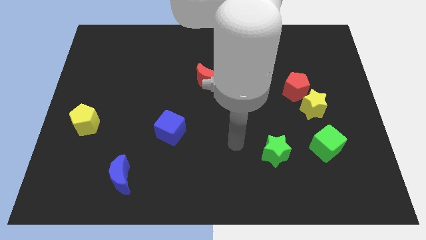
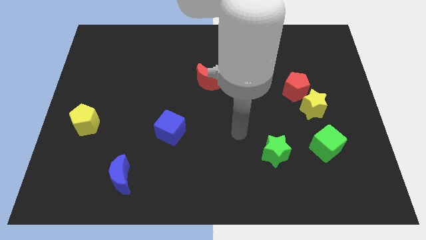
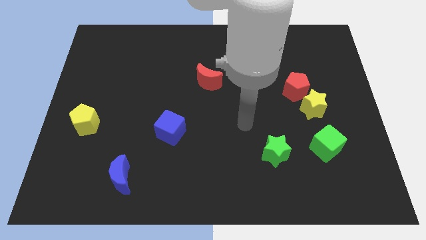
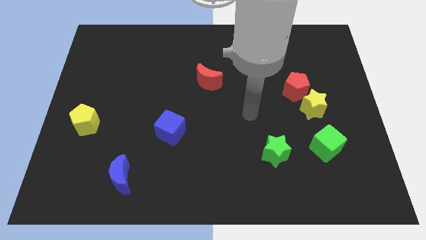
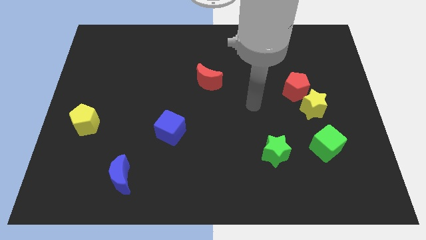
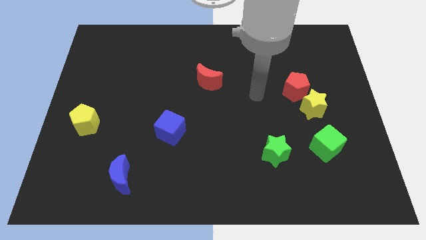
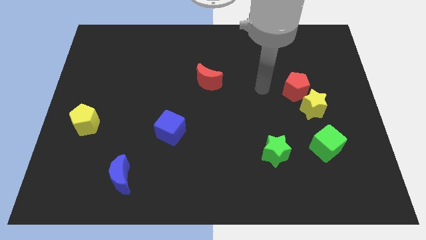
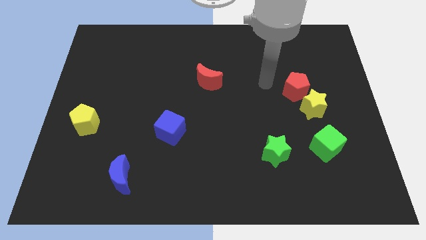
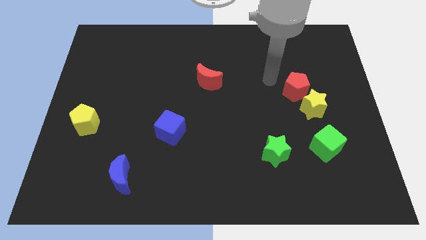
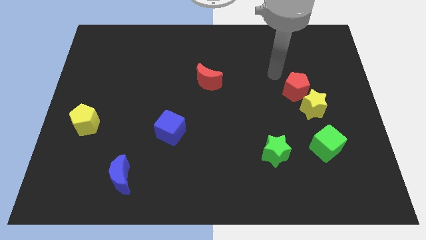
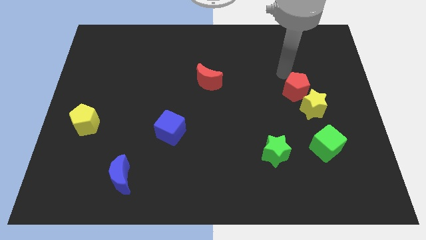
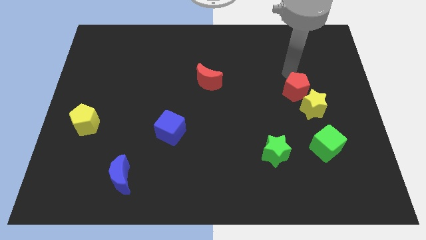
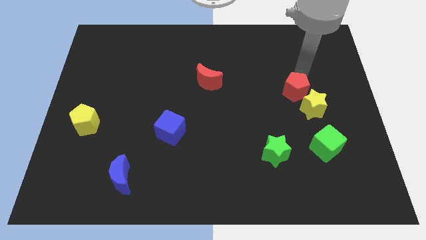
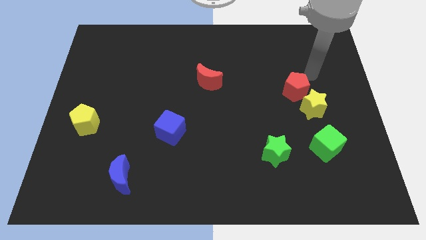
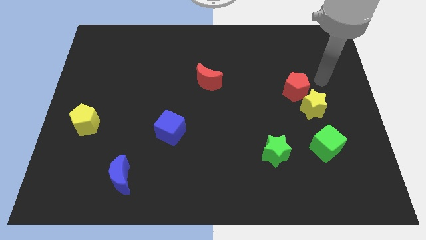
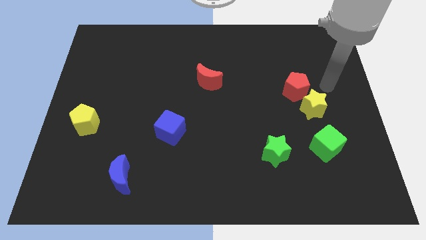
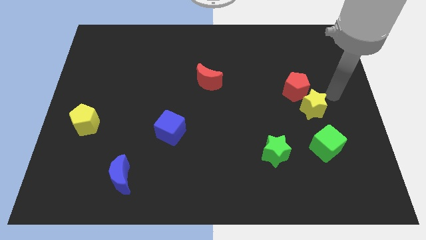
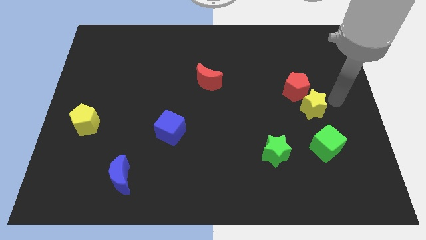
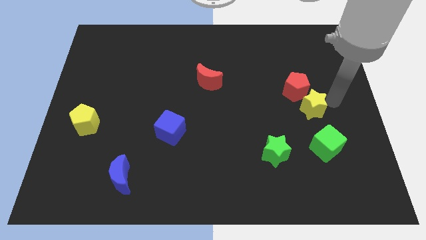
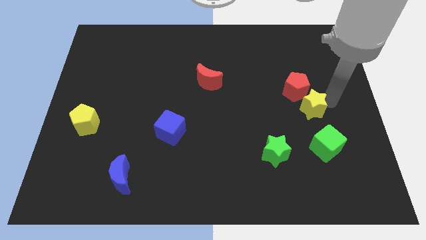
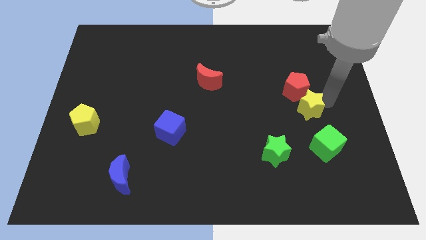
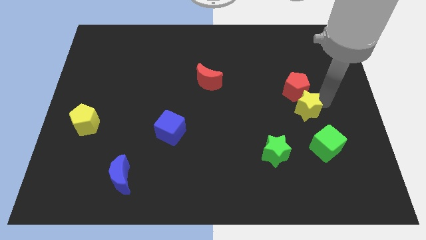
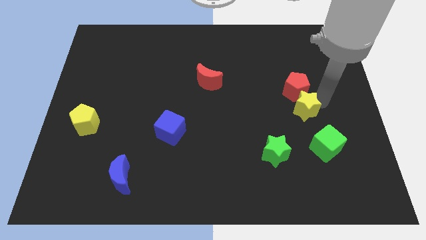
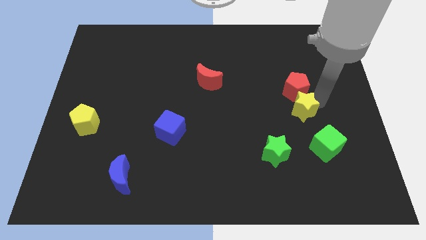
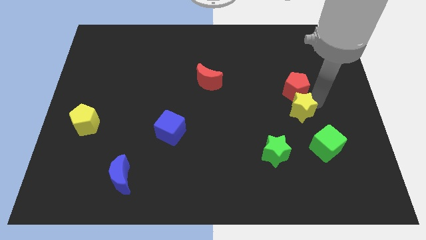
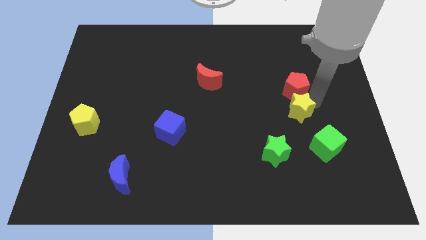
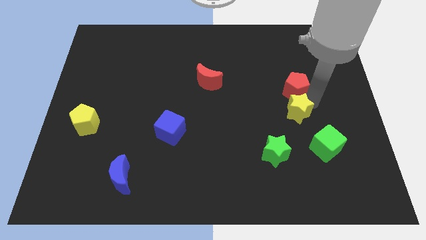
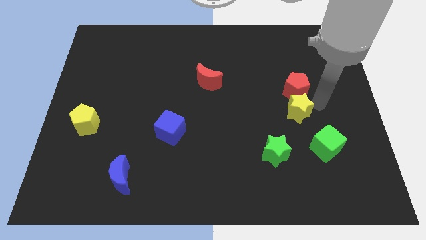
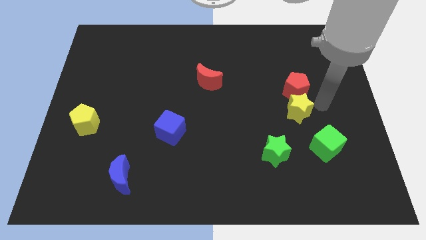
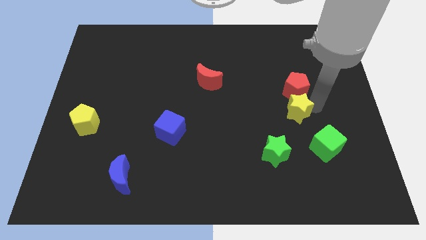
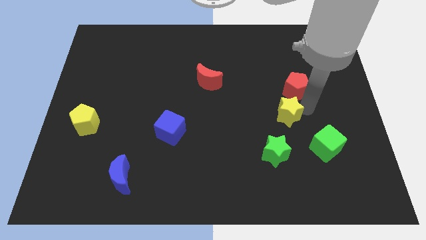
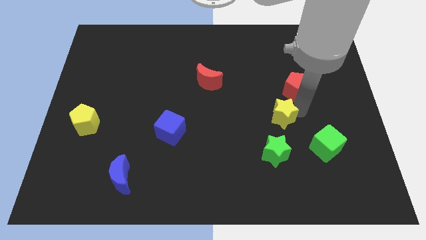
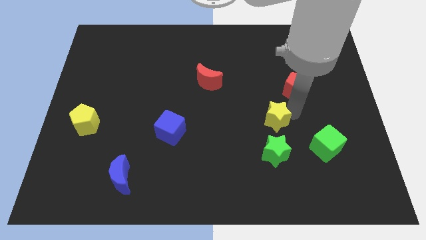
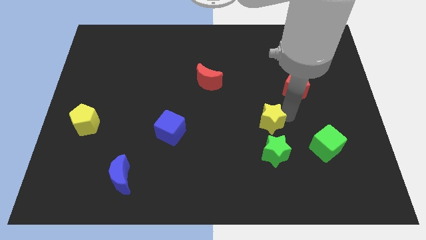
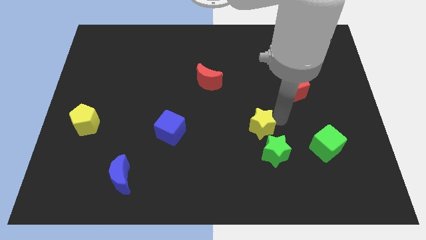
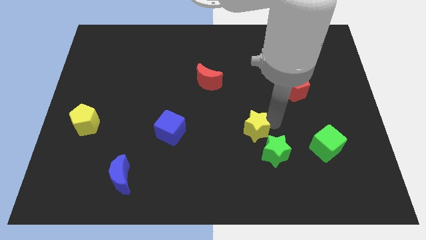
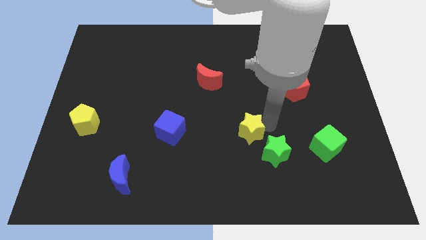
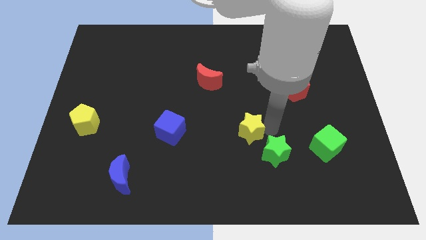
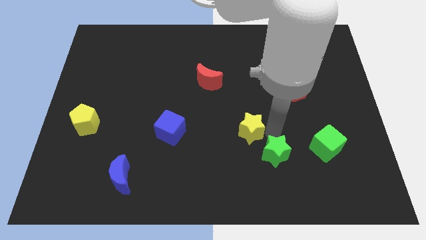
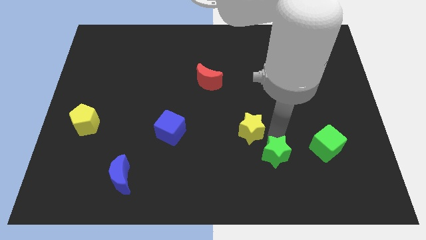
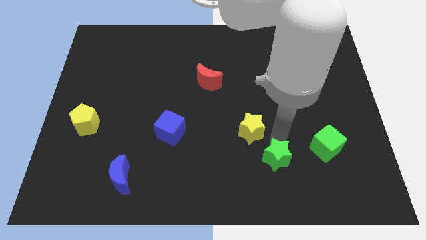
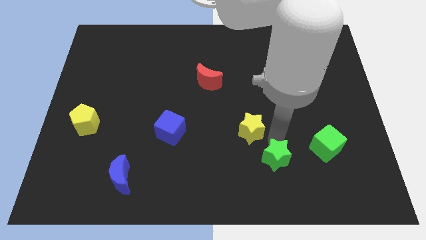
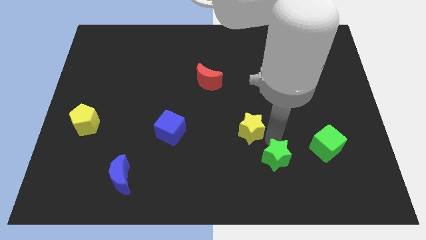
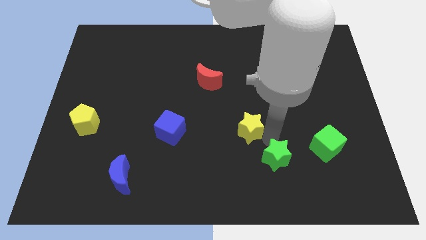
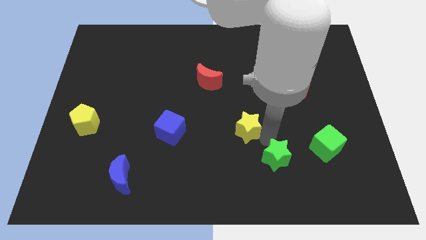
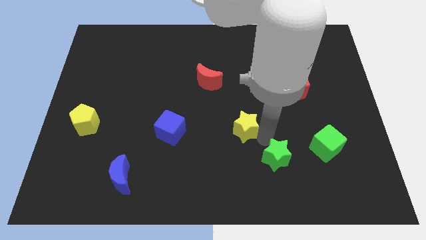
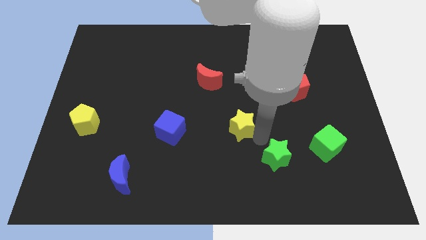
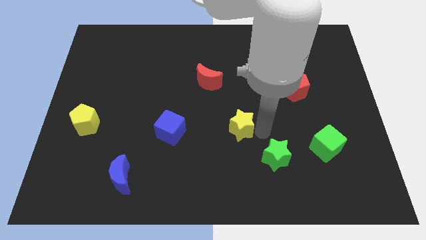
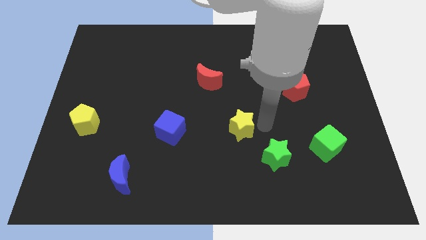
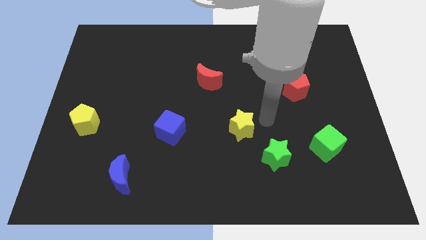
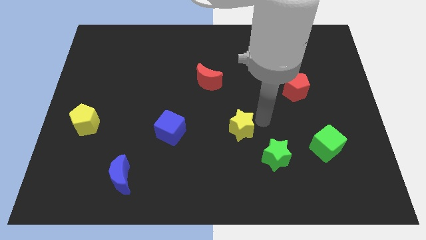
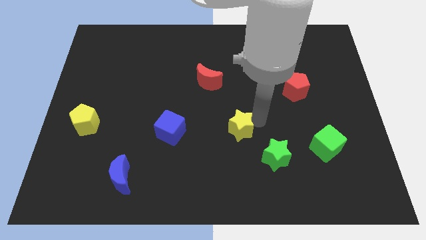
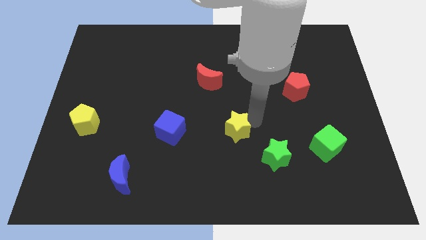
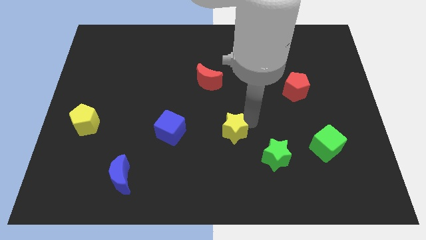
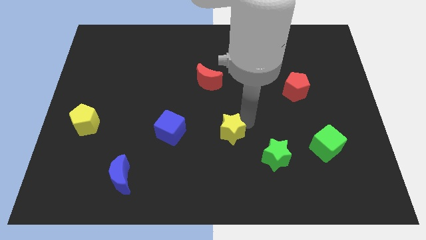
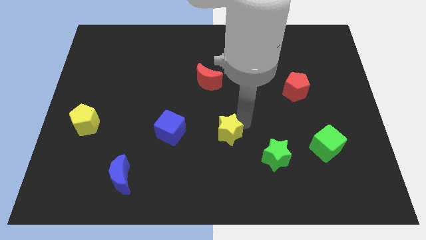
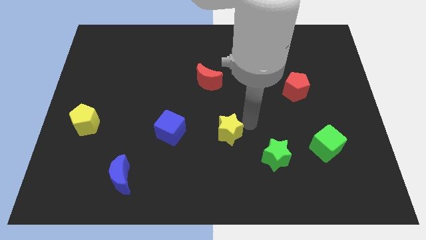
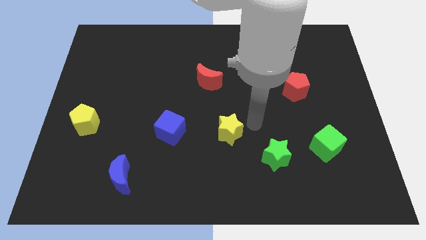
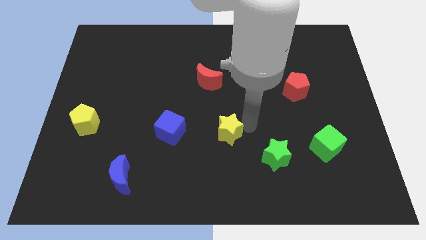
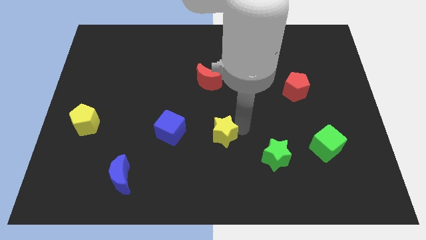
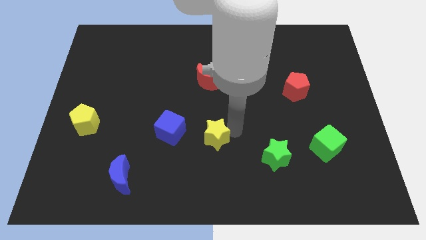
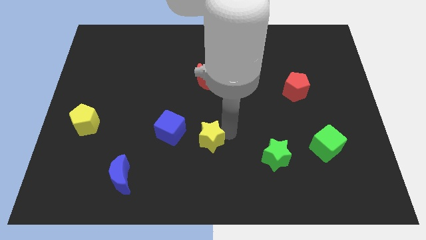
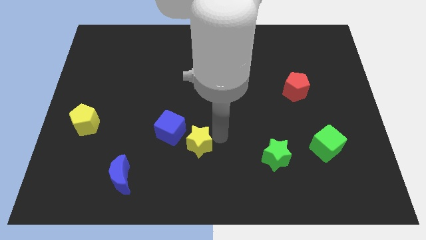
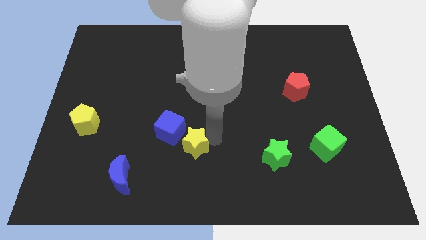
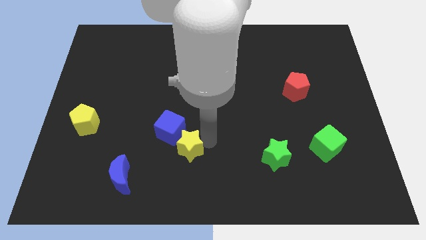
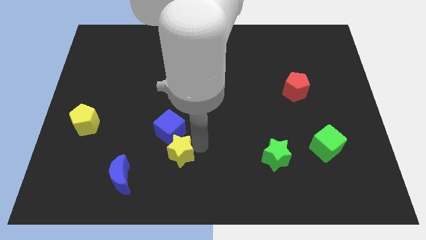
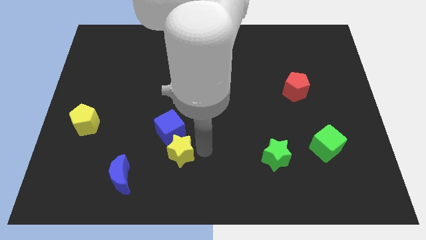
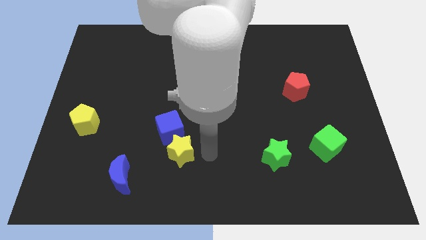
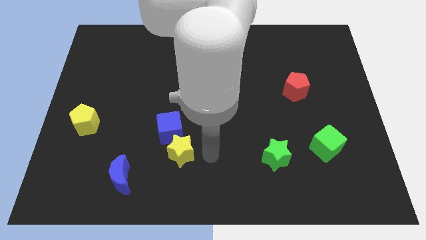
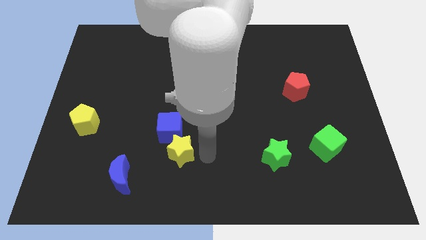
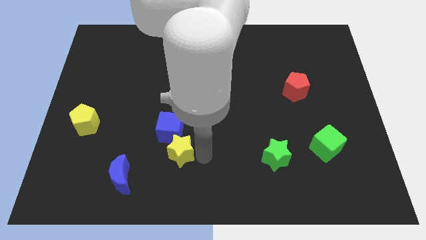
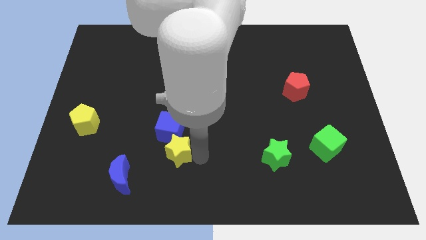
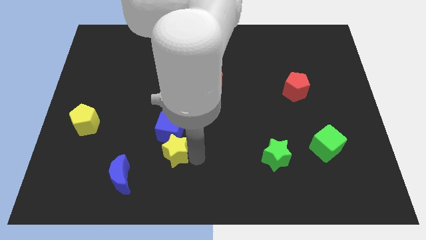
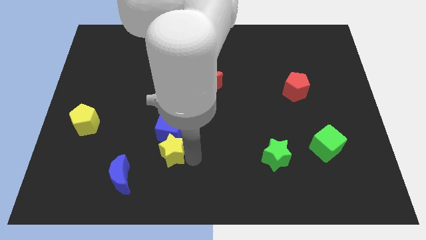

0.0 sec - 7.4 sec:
move the yellow star to the bottom left side of the blue cube
